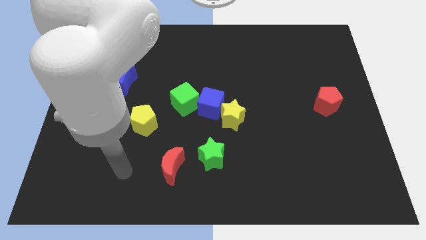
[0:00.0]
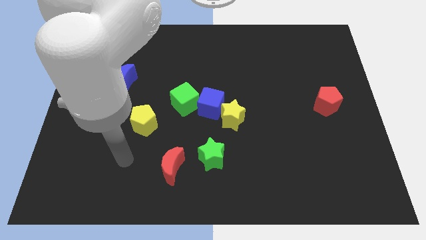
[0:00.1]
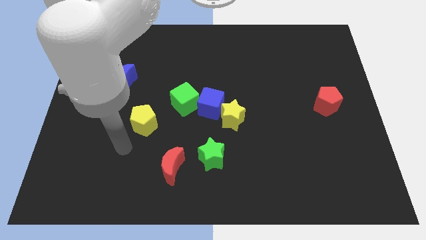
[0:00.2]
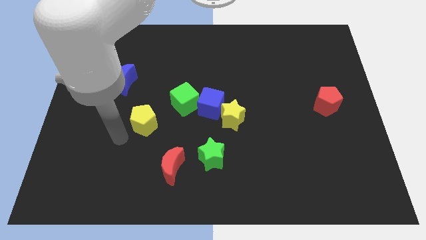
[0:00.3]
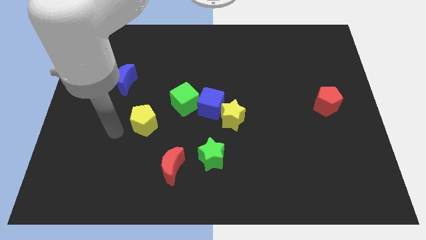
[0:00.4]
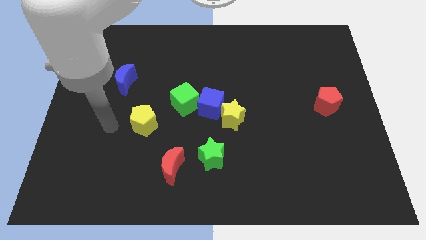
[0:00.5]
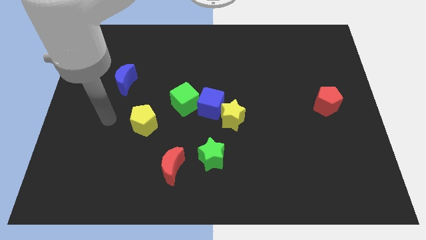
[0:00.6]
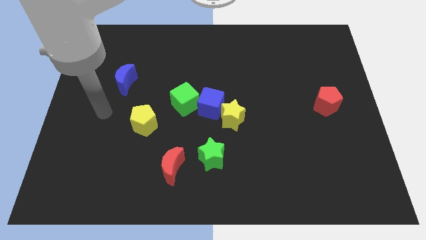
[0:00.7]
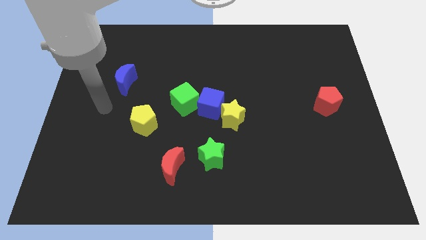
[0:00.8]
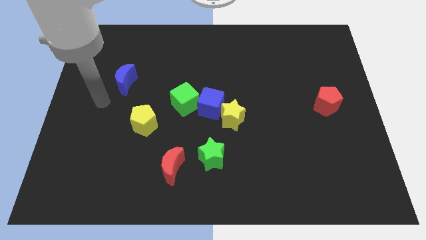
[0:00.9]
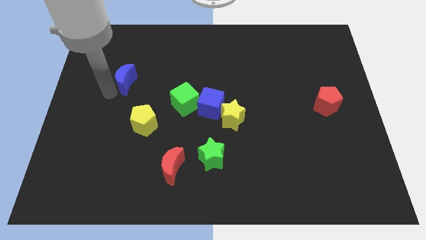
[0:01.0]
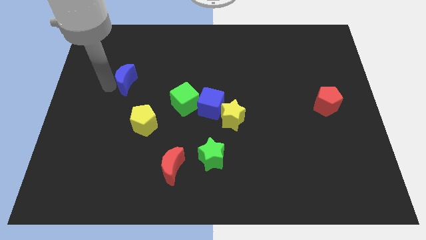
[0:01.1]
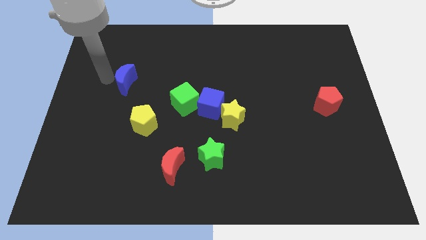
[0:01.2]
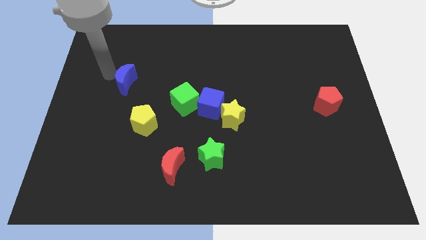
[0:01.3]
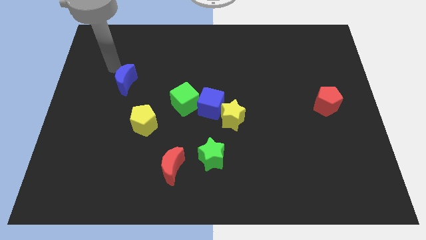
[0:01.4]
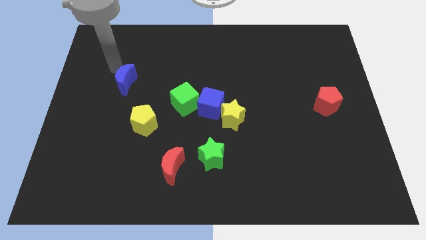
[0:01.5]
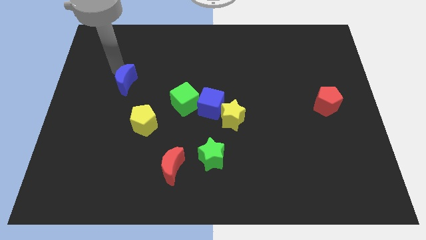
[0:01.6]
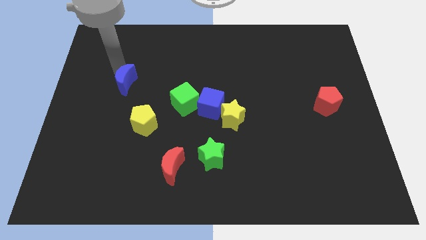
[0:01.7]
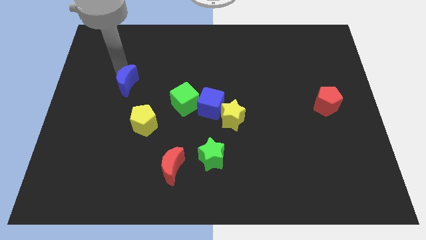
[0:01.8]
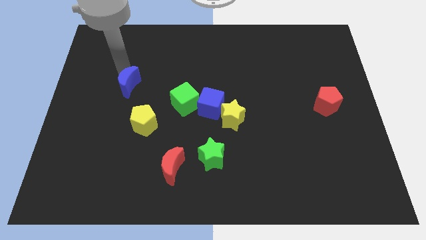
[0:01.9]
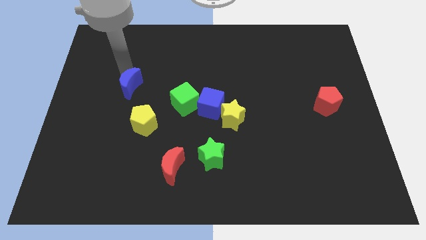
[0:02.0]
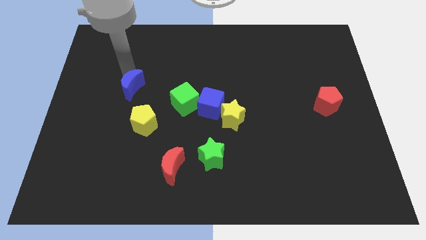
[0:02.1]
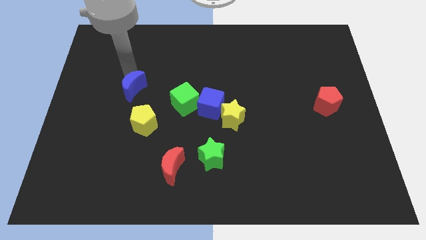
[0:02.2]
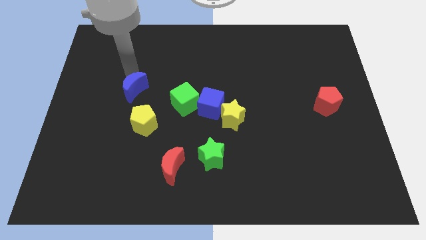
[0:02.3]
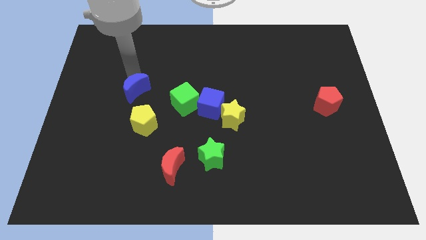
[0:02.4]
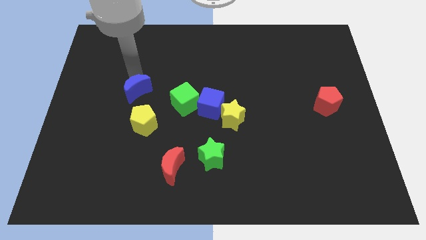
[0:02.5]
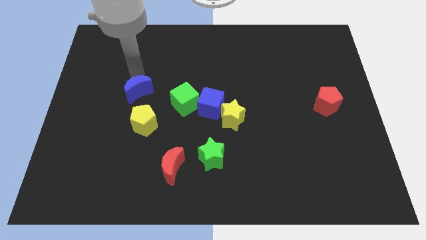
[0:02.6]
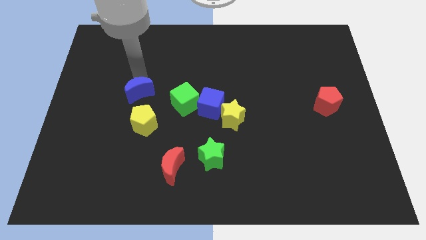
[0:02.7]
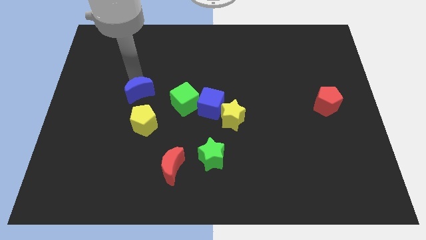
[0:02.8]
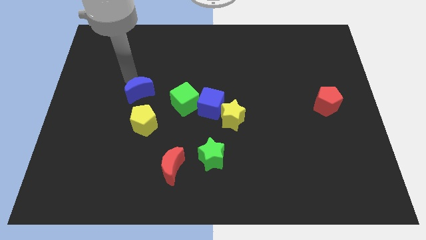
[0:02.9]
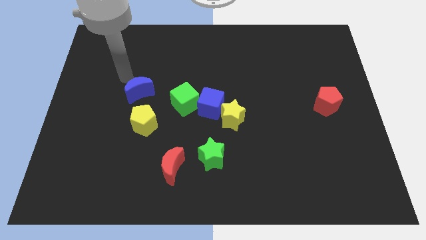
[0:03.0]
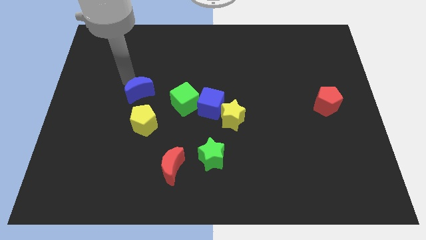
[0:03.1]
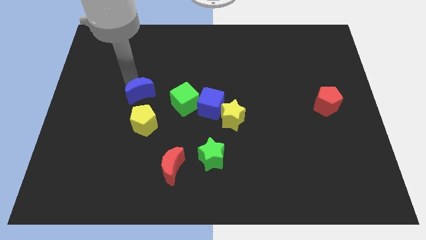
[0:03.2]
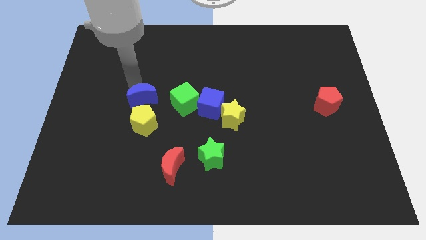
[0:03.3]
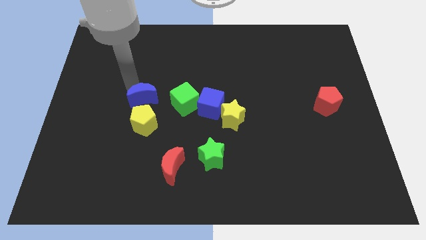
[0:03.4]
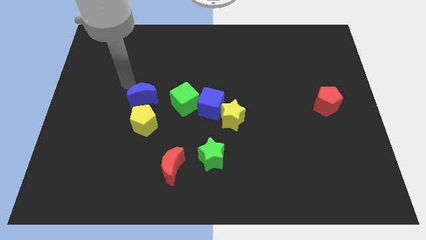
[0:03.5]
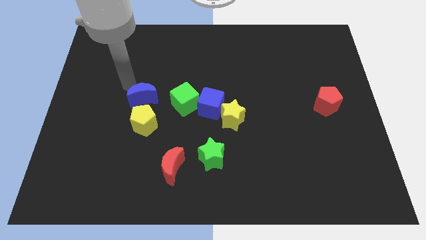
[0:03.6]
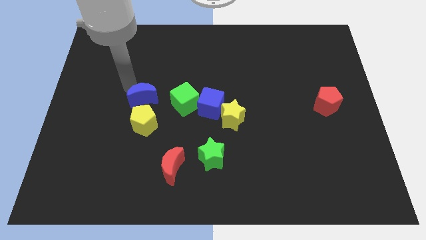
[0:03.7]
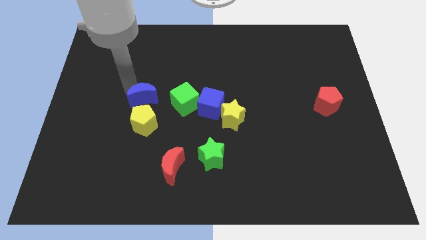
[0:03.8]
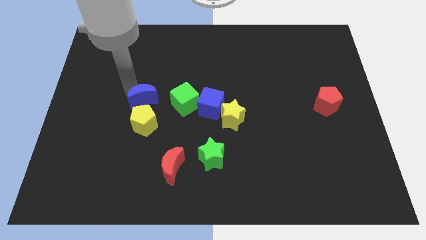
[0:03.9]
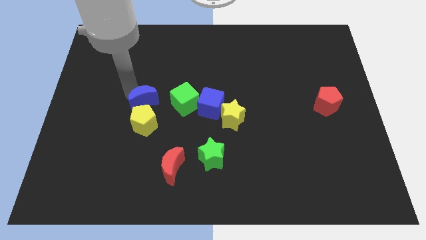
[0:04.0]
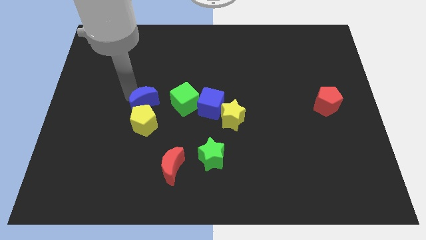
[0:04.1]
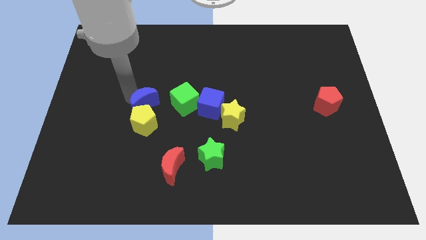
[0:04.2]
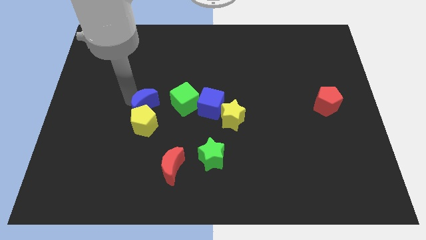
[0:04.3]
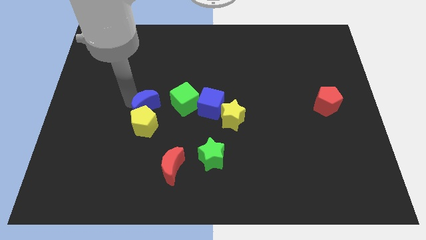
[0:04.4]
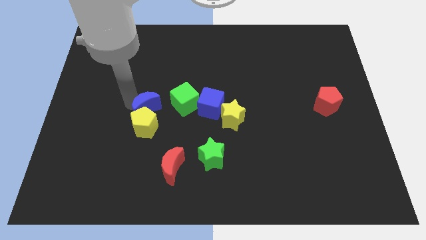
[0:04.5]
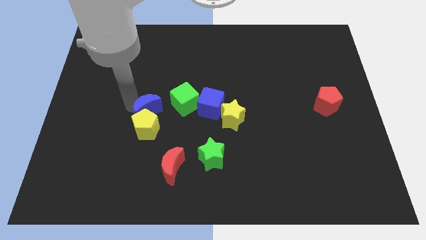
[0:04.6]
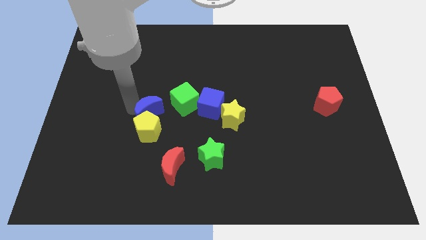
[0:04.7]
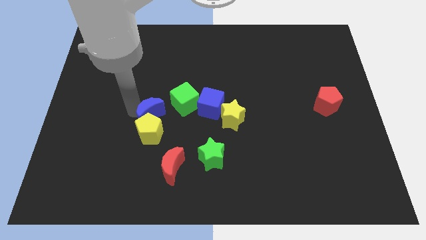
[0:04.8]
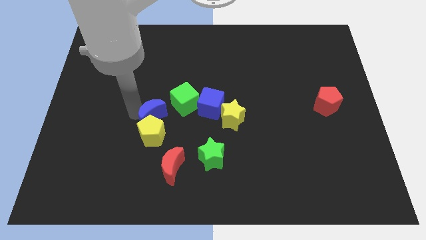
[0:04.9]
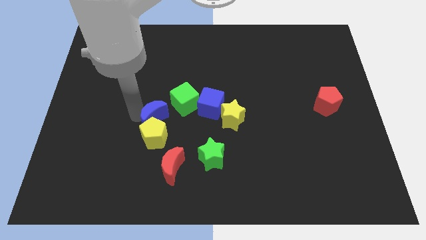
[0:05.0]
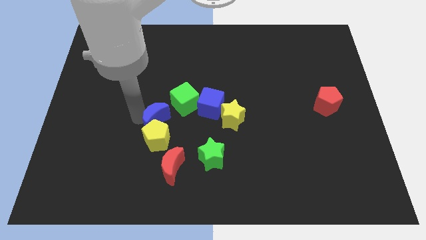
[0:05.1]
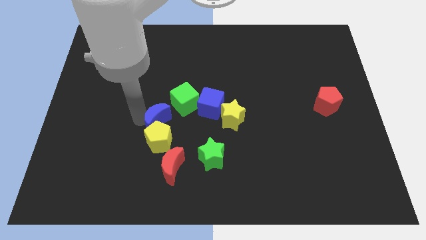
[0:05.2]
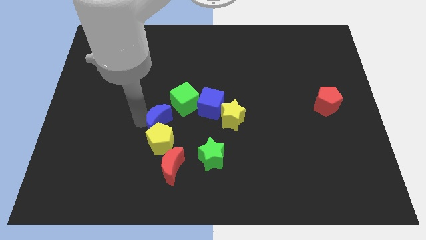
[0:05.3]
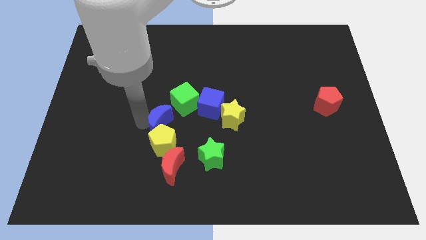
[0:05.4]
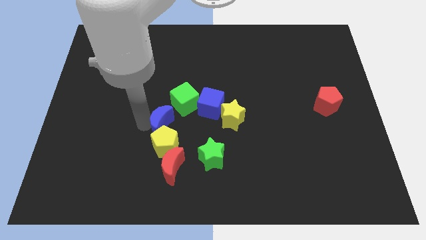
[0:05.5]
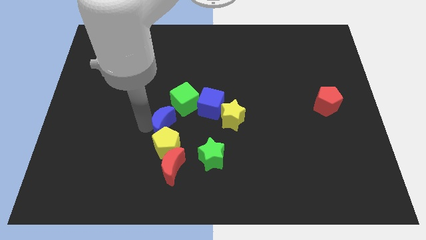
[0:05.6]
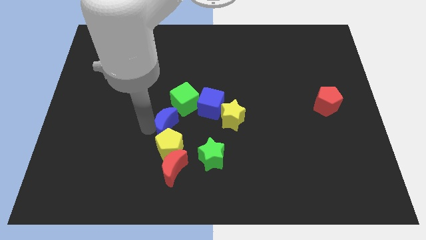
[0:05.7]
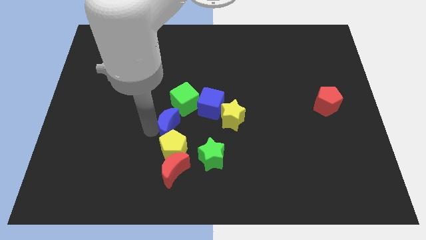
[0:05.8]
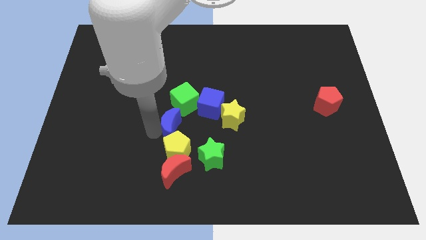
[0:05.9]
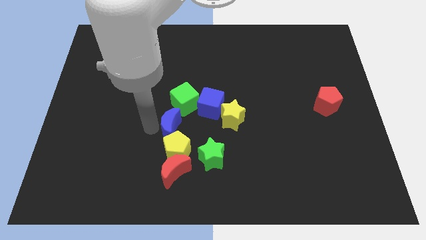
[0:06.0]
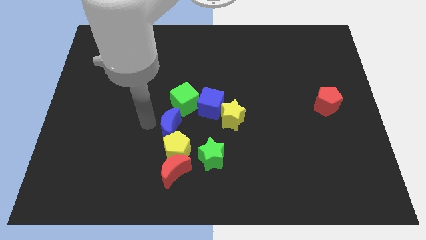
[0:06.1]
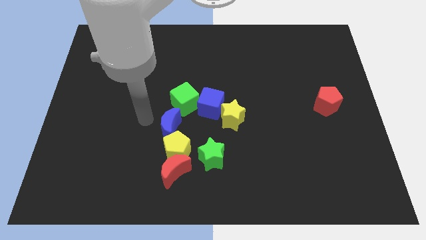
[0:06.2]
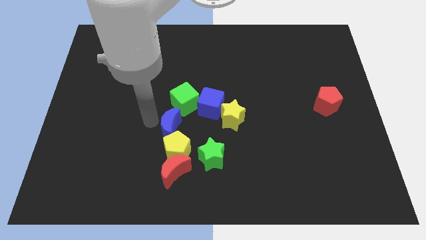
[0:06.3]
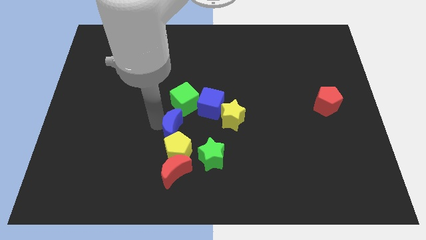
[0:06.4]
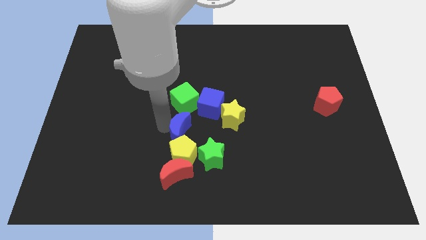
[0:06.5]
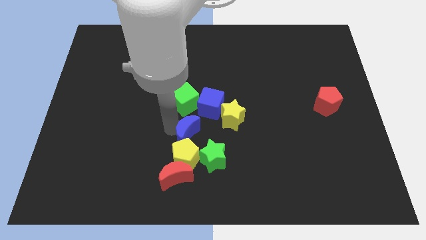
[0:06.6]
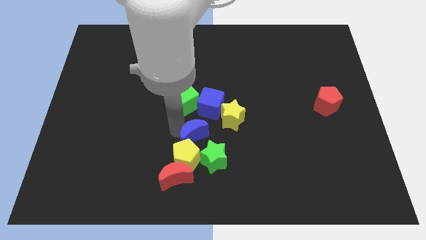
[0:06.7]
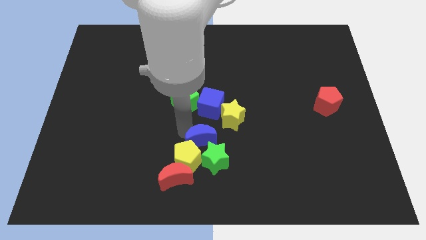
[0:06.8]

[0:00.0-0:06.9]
slide the blue moon to the green star

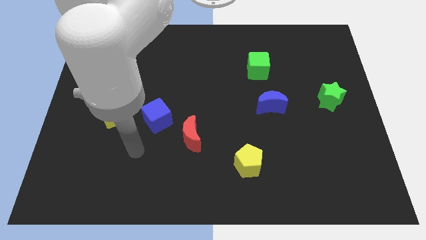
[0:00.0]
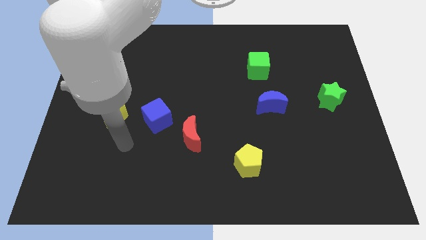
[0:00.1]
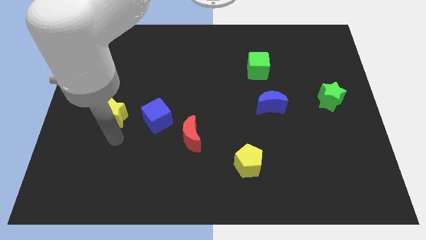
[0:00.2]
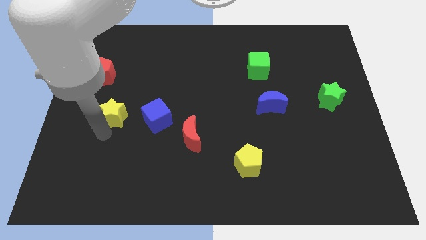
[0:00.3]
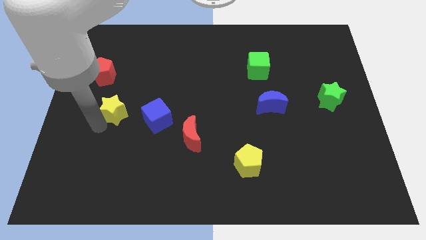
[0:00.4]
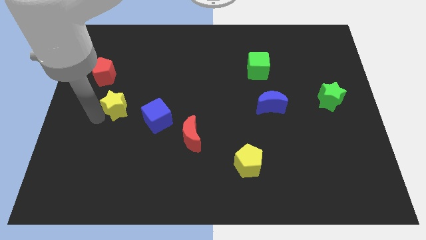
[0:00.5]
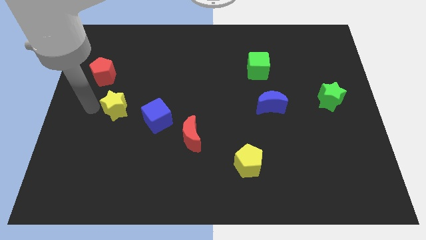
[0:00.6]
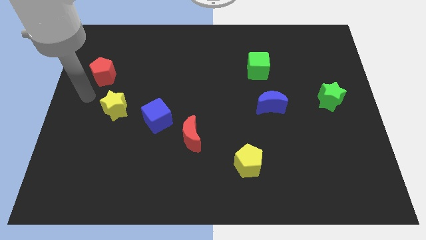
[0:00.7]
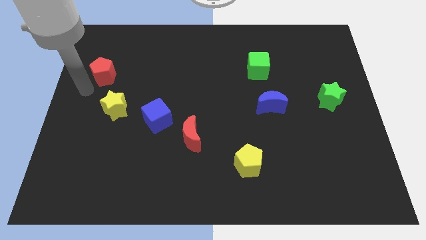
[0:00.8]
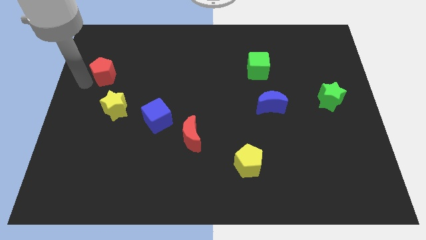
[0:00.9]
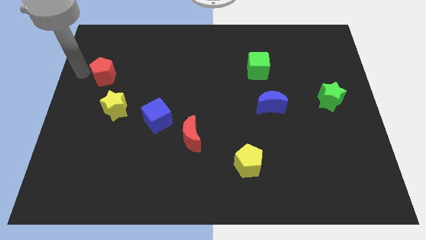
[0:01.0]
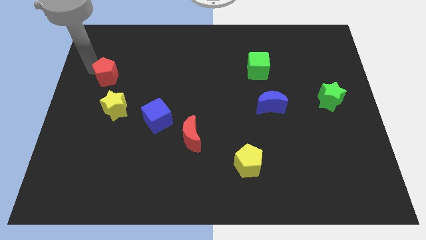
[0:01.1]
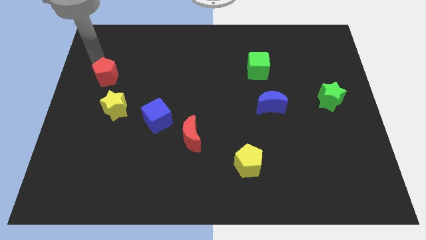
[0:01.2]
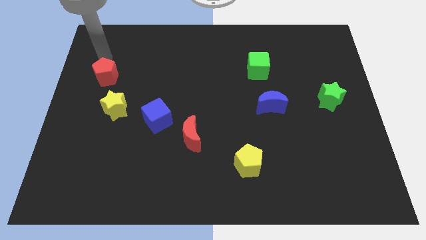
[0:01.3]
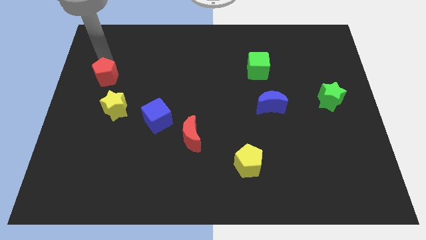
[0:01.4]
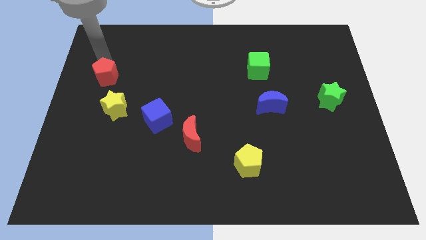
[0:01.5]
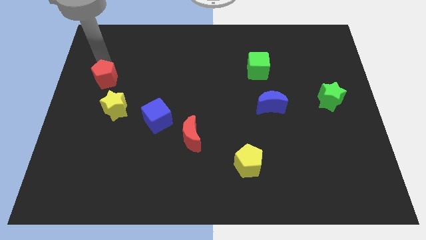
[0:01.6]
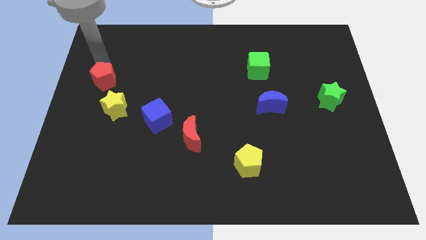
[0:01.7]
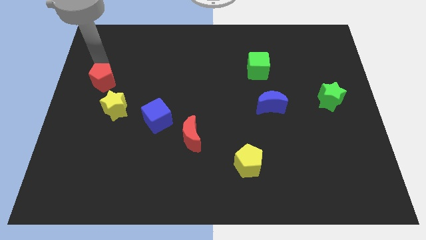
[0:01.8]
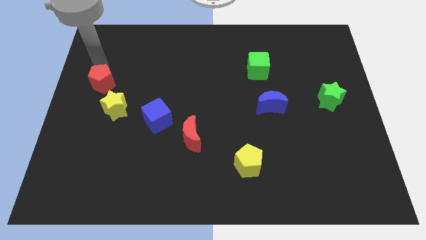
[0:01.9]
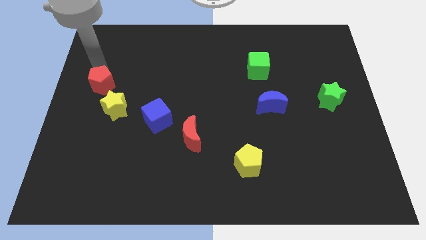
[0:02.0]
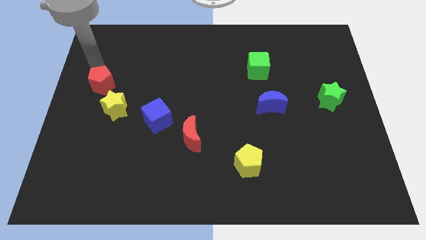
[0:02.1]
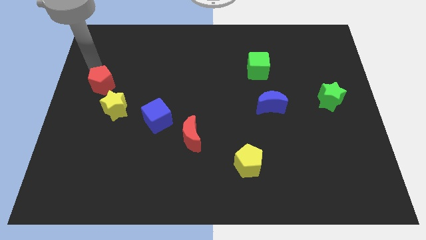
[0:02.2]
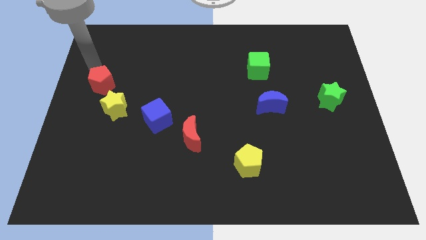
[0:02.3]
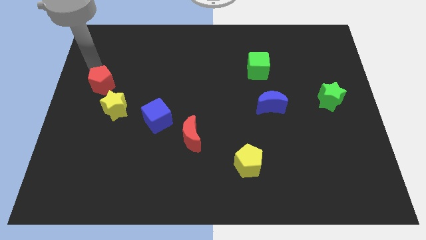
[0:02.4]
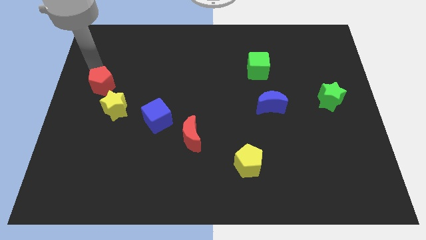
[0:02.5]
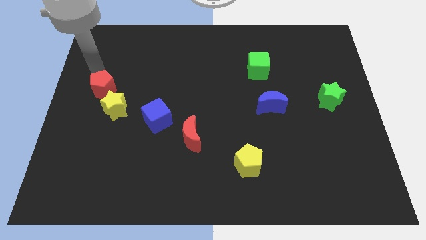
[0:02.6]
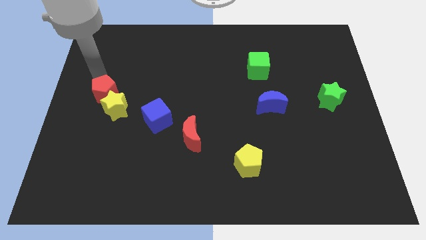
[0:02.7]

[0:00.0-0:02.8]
move the red pentagon towards the yellow star
